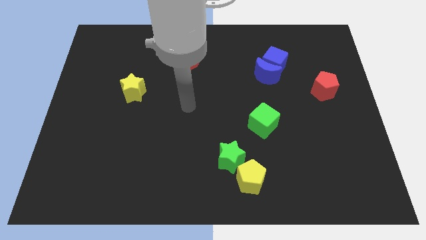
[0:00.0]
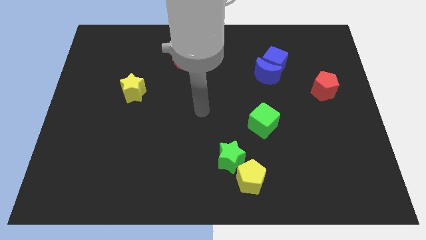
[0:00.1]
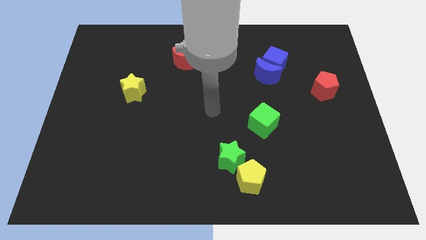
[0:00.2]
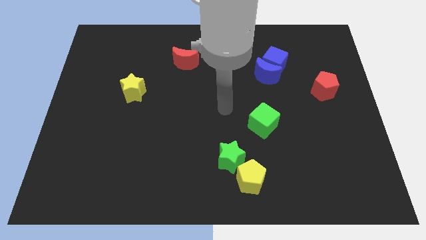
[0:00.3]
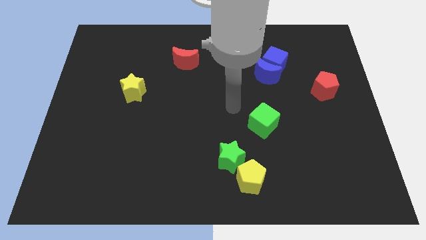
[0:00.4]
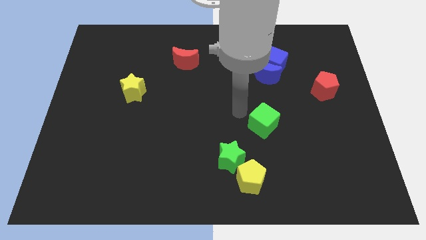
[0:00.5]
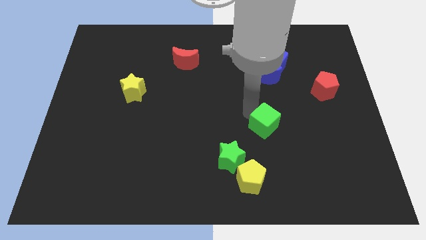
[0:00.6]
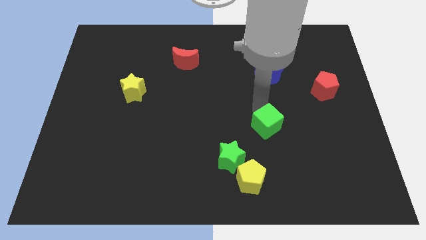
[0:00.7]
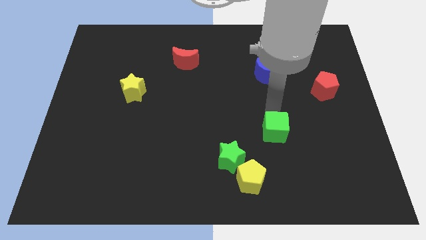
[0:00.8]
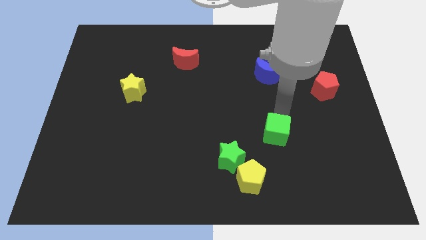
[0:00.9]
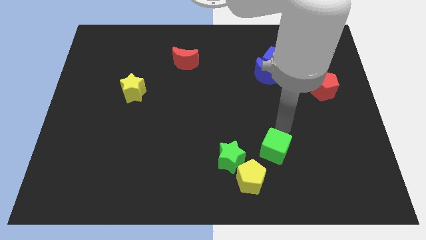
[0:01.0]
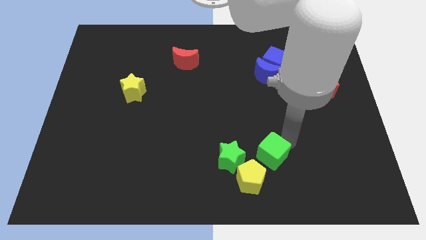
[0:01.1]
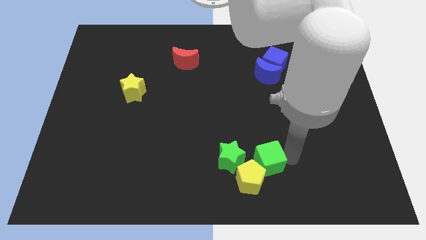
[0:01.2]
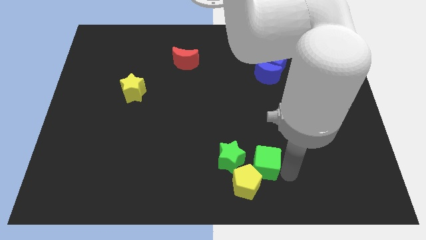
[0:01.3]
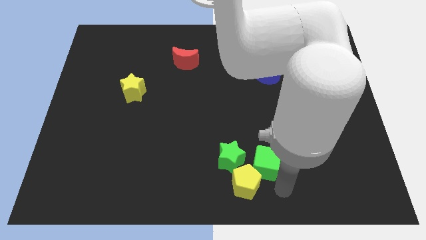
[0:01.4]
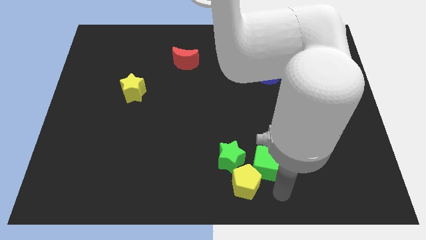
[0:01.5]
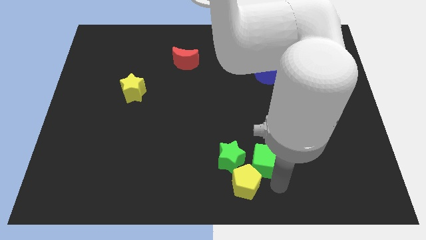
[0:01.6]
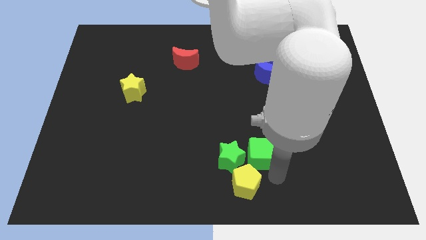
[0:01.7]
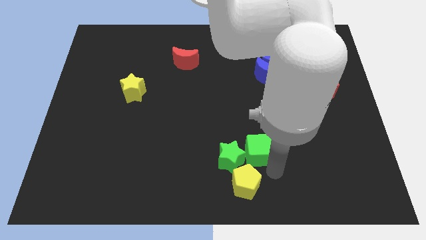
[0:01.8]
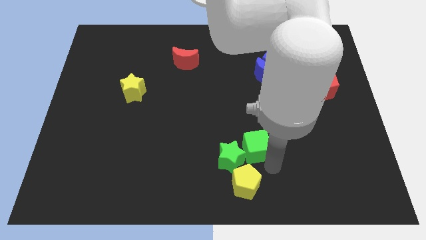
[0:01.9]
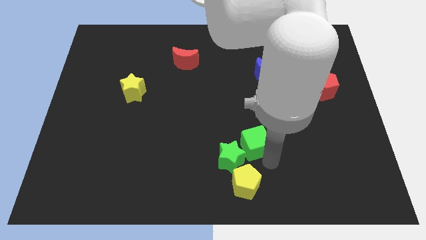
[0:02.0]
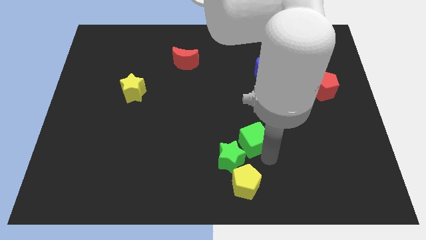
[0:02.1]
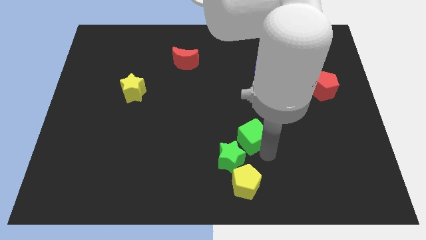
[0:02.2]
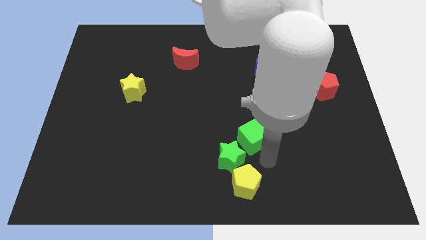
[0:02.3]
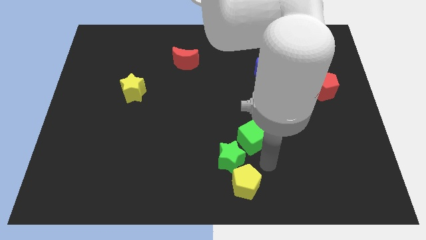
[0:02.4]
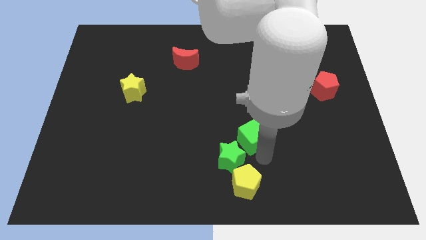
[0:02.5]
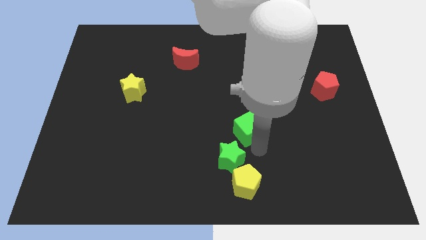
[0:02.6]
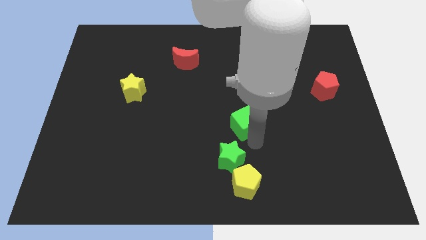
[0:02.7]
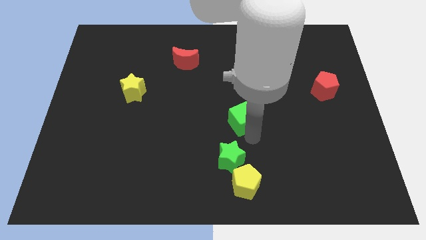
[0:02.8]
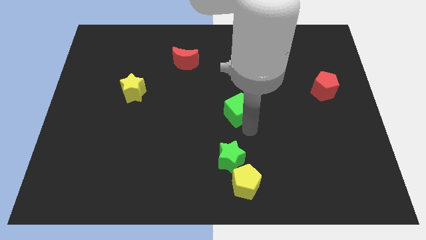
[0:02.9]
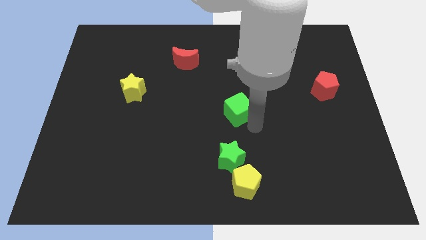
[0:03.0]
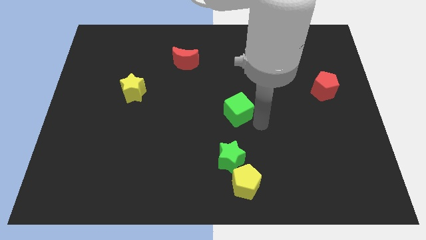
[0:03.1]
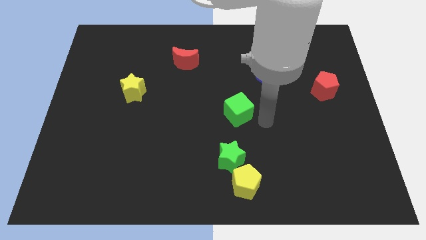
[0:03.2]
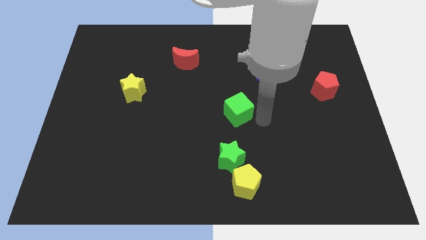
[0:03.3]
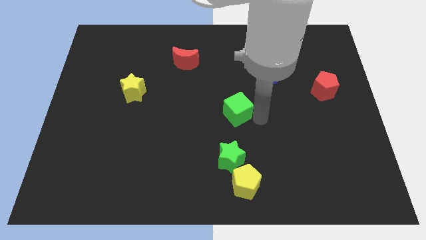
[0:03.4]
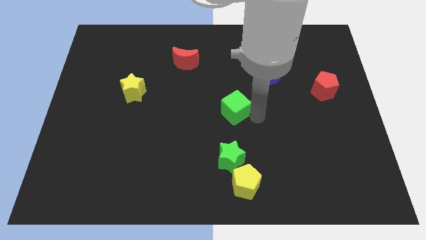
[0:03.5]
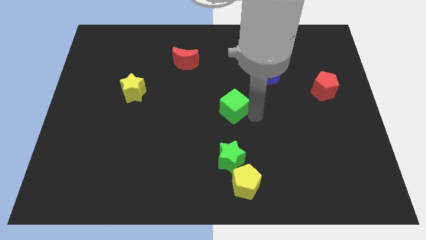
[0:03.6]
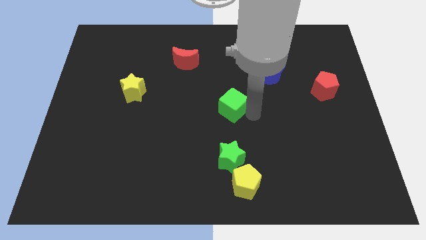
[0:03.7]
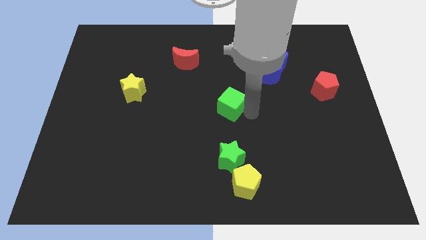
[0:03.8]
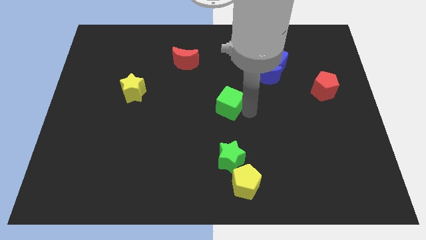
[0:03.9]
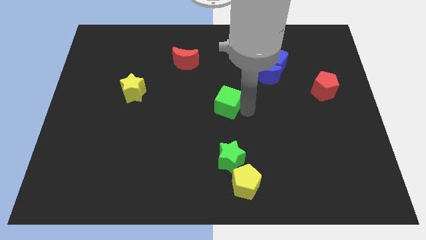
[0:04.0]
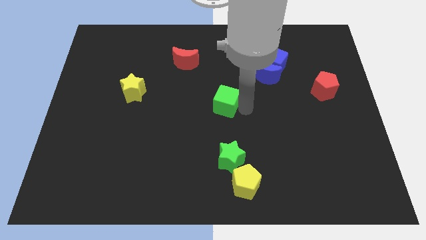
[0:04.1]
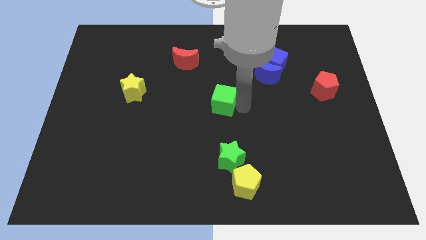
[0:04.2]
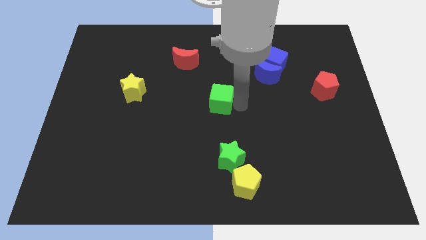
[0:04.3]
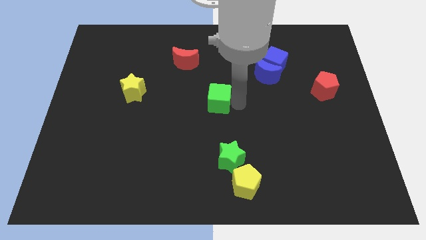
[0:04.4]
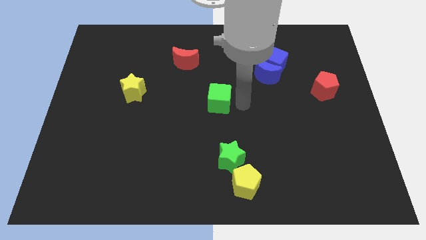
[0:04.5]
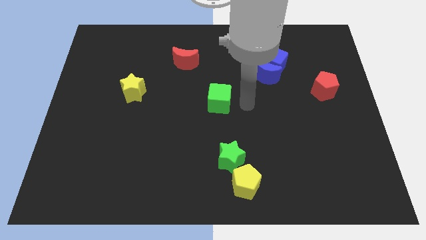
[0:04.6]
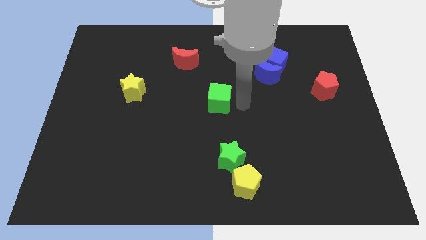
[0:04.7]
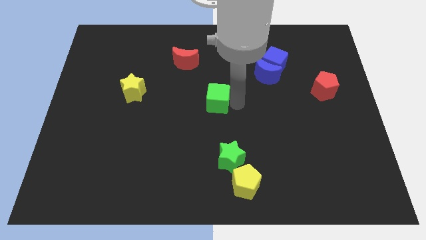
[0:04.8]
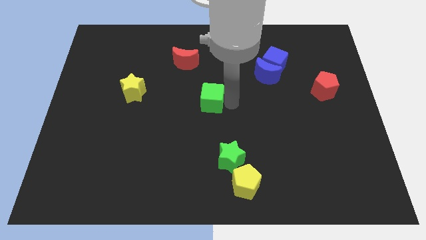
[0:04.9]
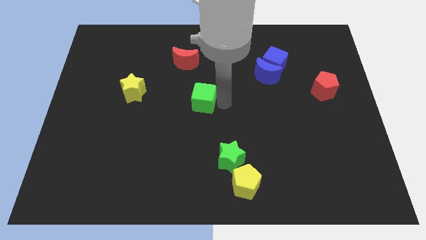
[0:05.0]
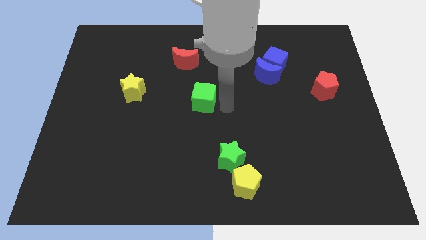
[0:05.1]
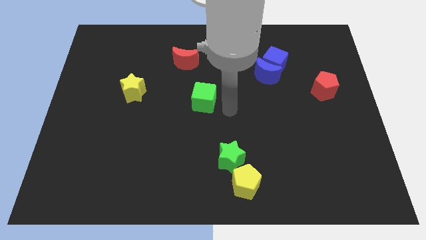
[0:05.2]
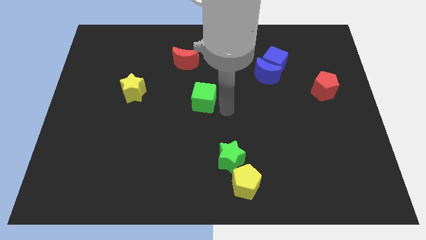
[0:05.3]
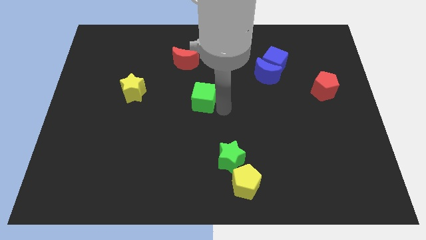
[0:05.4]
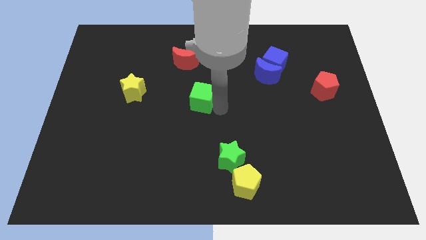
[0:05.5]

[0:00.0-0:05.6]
move the green cube to the bottom of the red moon

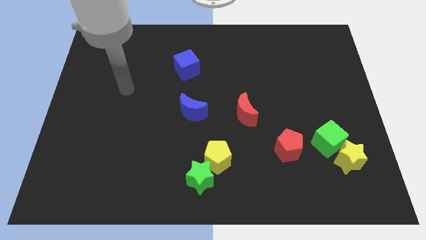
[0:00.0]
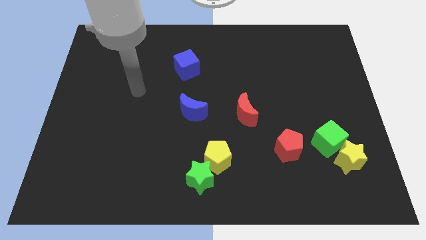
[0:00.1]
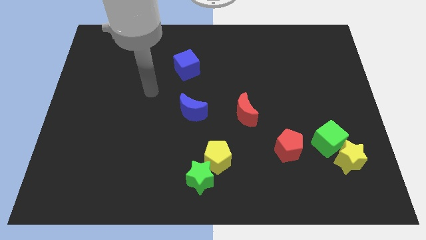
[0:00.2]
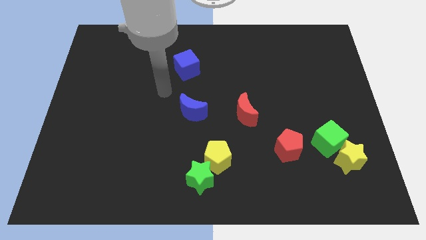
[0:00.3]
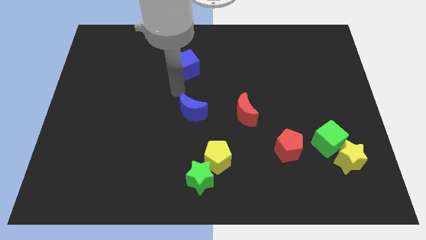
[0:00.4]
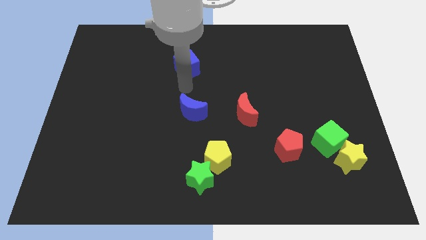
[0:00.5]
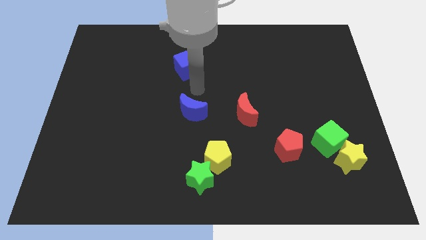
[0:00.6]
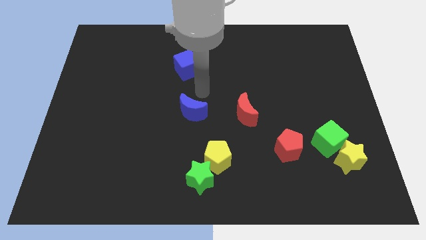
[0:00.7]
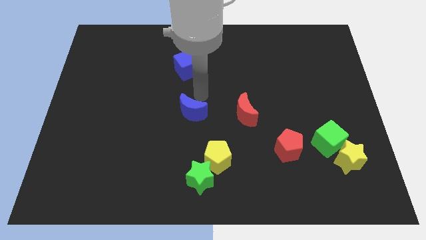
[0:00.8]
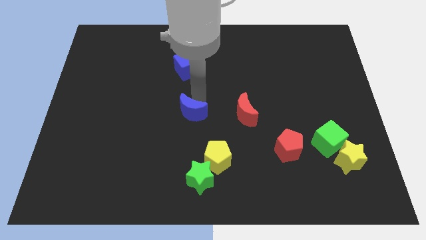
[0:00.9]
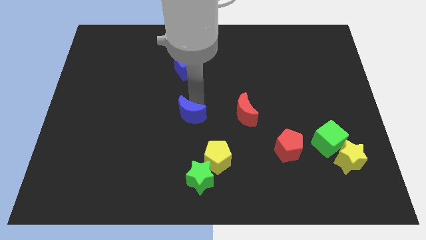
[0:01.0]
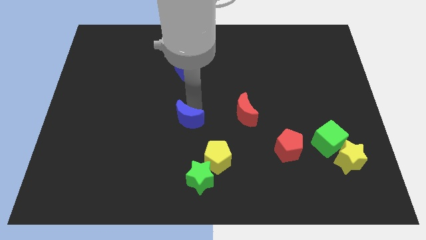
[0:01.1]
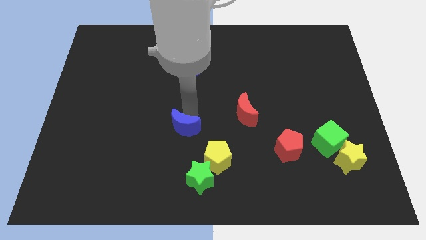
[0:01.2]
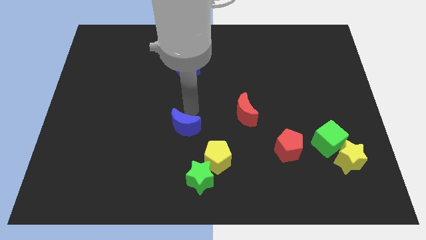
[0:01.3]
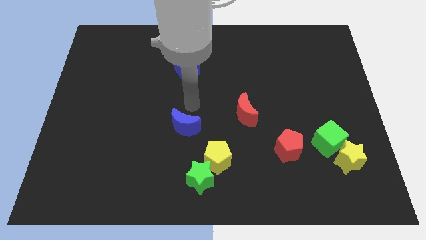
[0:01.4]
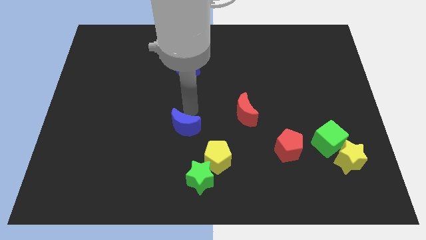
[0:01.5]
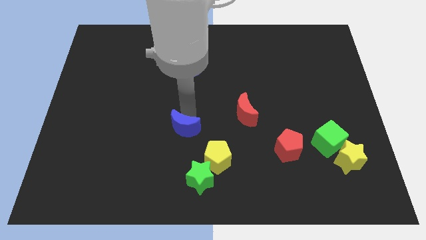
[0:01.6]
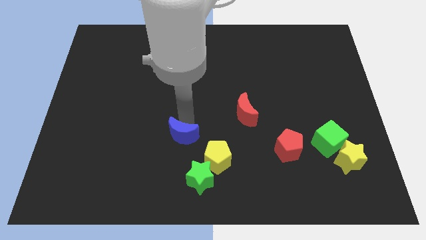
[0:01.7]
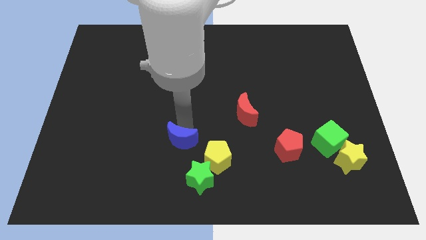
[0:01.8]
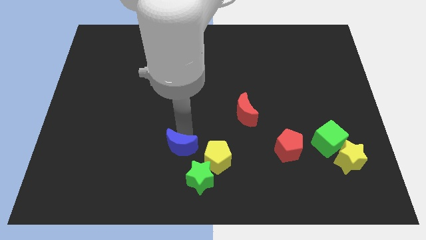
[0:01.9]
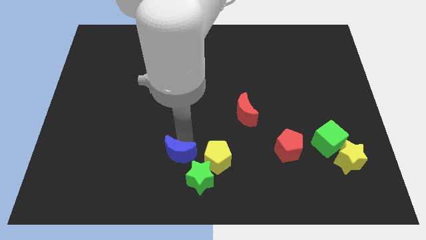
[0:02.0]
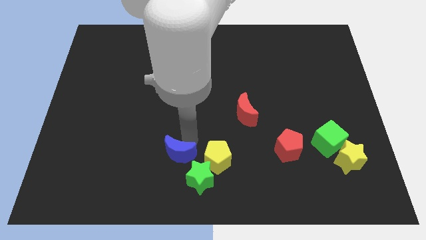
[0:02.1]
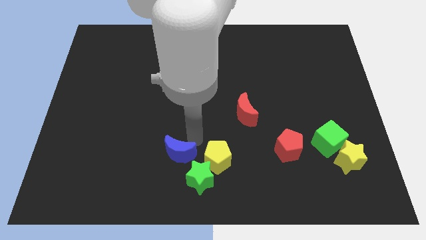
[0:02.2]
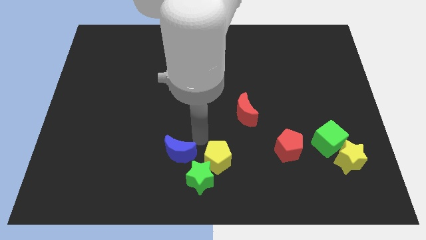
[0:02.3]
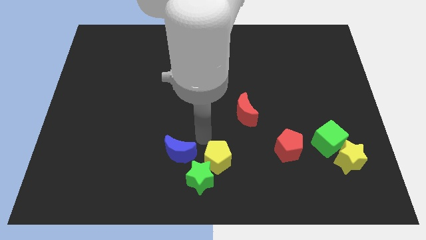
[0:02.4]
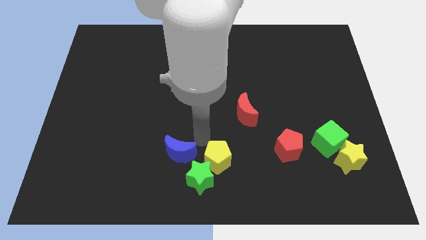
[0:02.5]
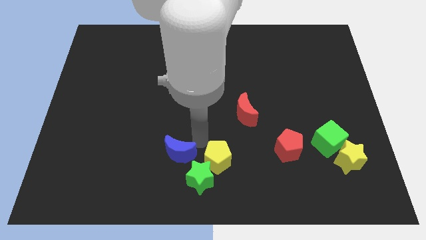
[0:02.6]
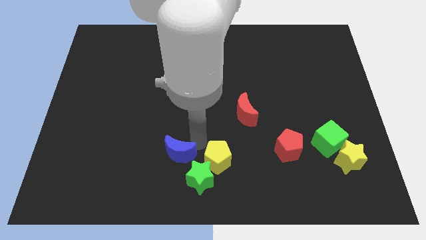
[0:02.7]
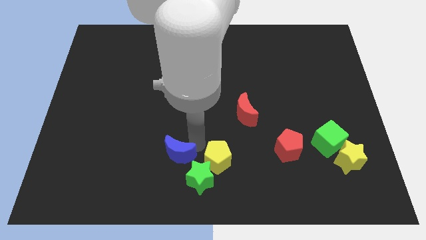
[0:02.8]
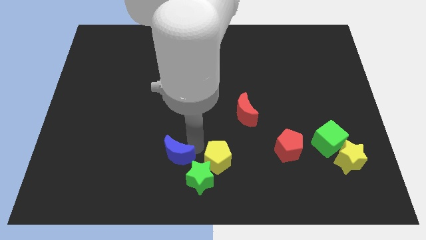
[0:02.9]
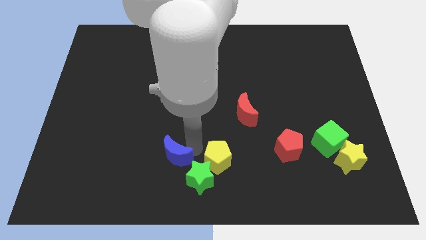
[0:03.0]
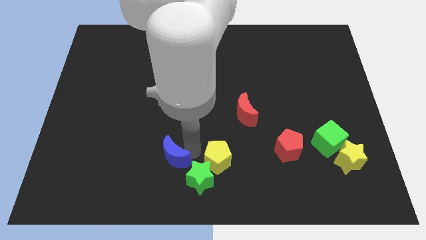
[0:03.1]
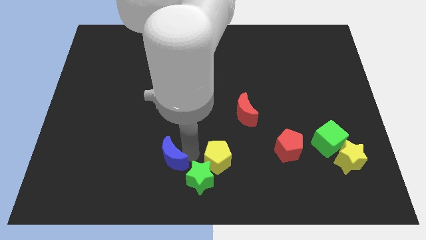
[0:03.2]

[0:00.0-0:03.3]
put the blue moon left of the green star
